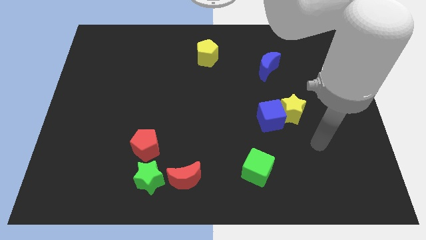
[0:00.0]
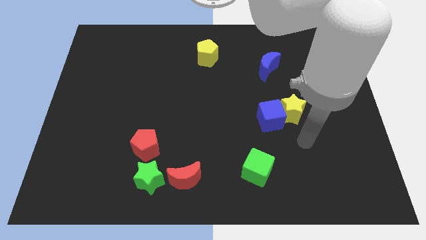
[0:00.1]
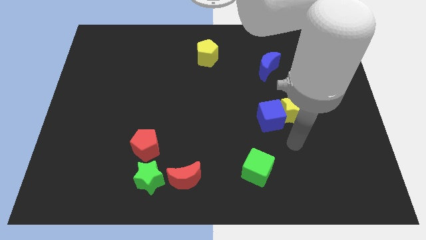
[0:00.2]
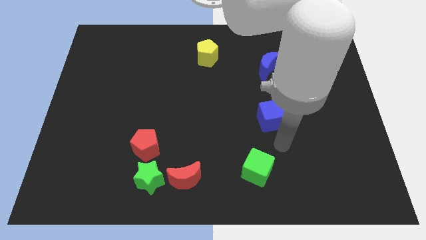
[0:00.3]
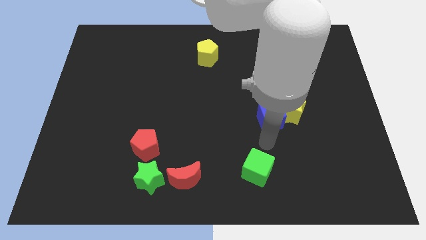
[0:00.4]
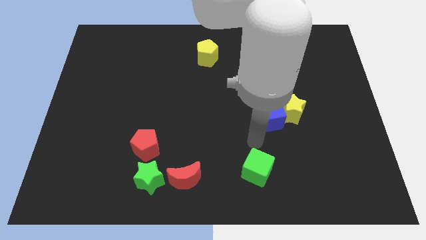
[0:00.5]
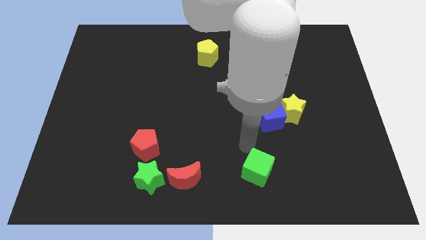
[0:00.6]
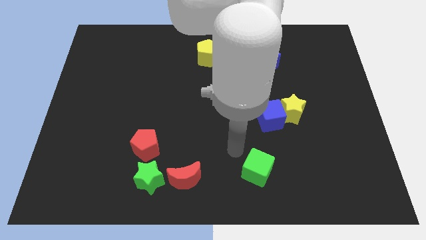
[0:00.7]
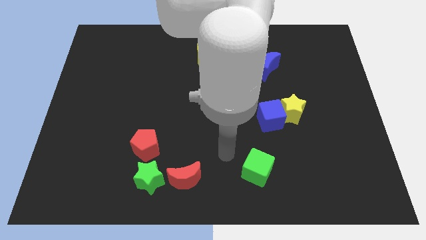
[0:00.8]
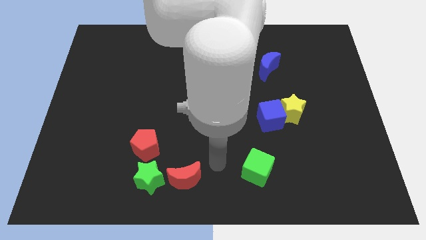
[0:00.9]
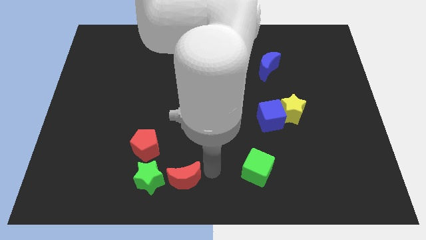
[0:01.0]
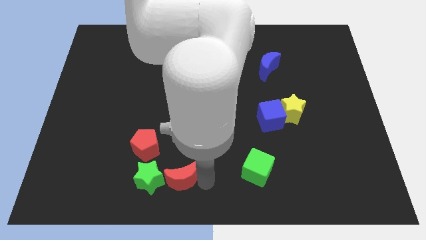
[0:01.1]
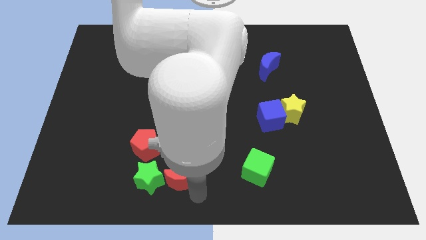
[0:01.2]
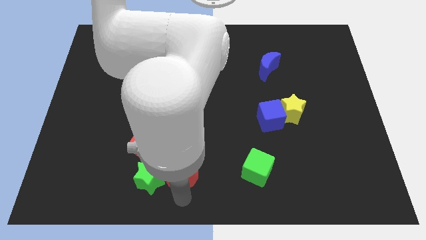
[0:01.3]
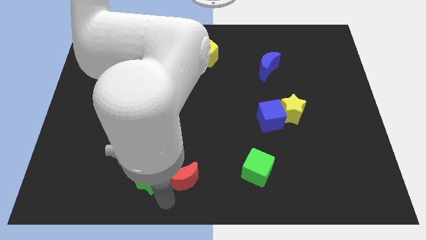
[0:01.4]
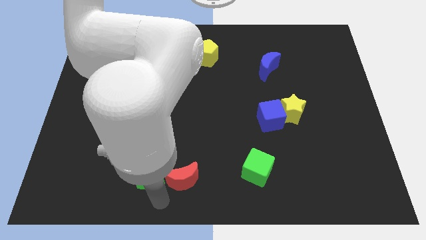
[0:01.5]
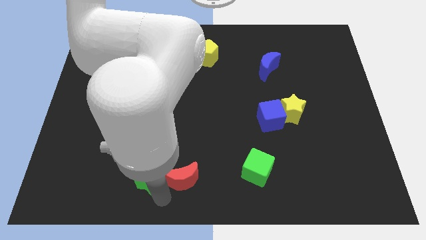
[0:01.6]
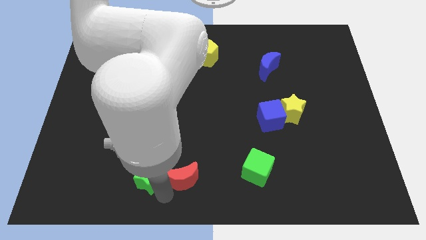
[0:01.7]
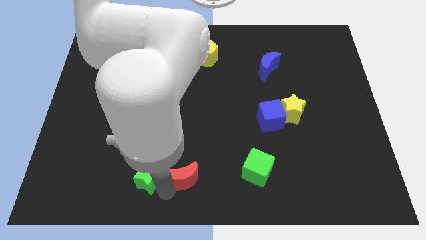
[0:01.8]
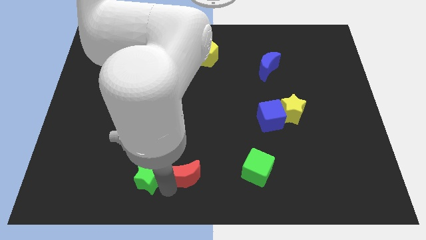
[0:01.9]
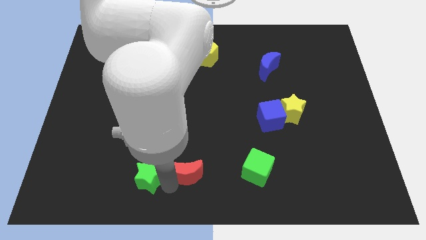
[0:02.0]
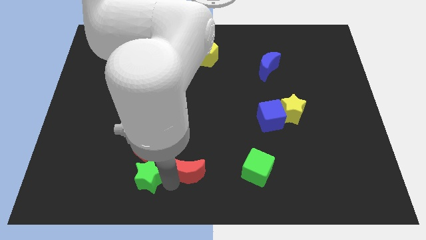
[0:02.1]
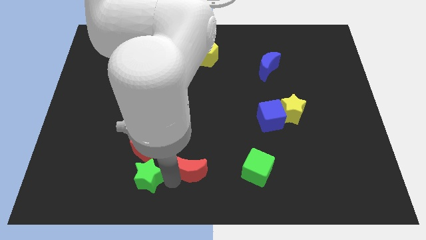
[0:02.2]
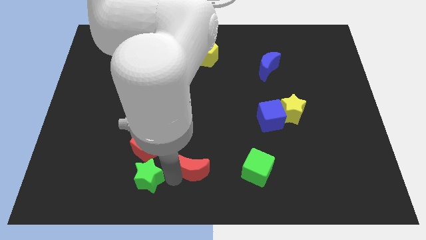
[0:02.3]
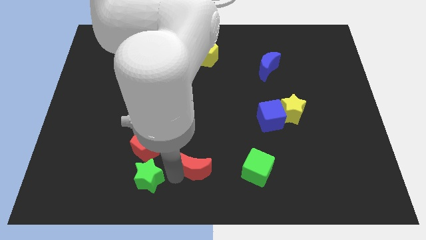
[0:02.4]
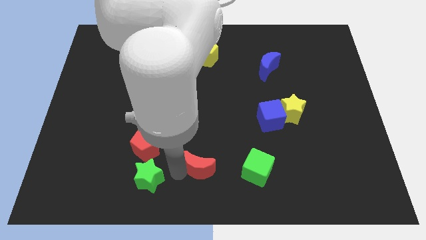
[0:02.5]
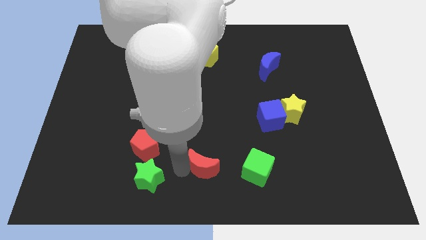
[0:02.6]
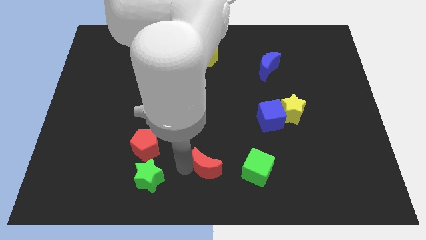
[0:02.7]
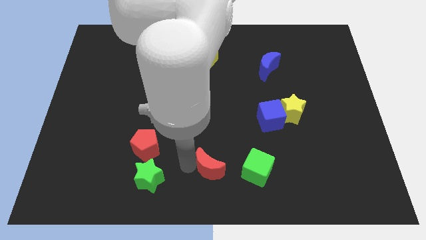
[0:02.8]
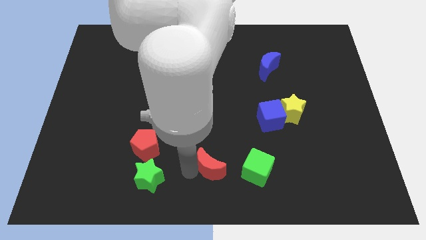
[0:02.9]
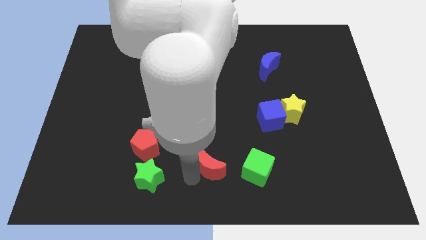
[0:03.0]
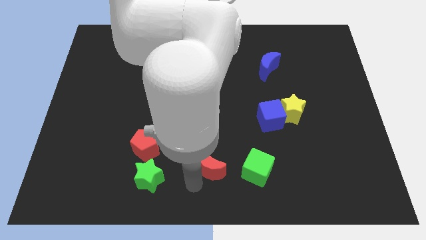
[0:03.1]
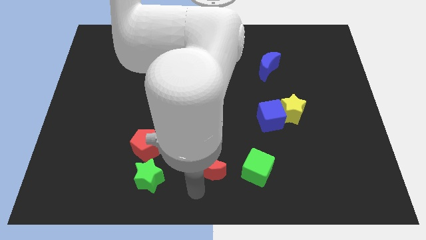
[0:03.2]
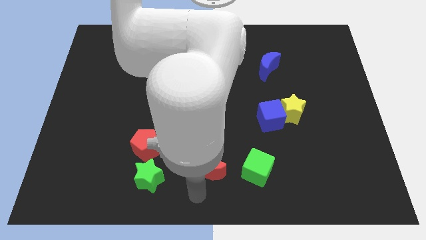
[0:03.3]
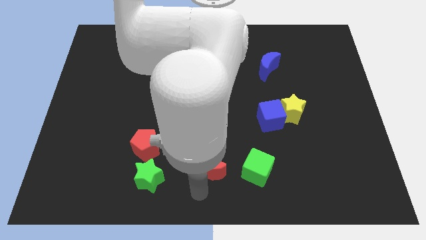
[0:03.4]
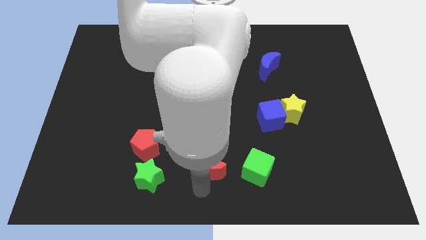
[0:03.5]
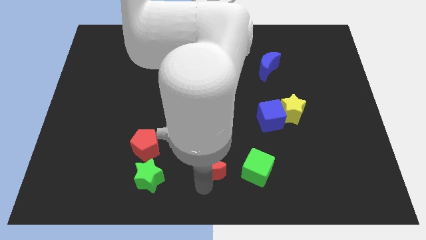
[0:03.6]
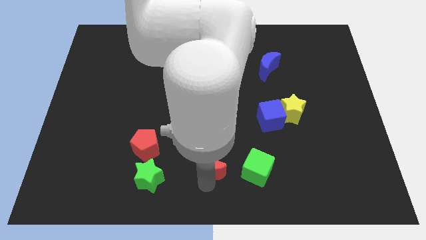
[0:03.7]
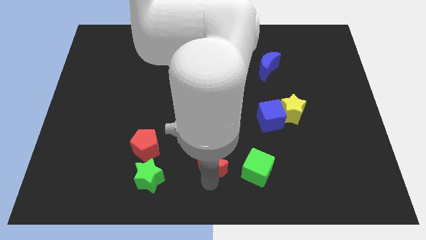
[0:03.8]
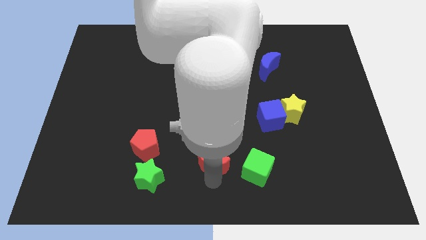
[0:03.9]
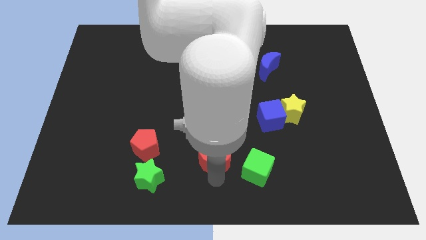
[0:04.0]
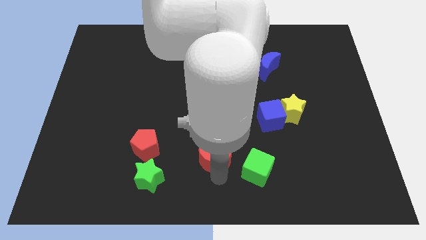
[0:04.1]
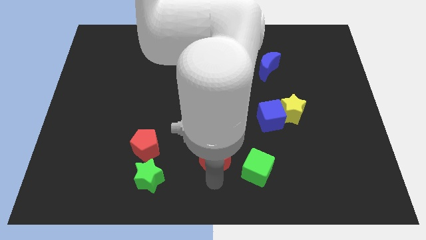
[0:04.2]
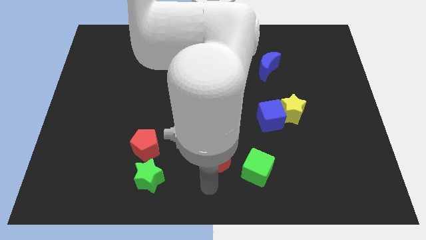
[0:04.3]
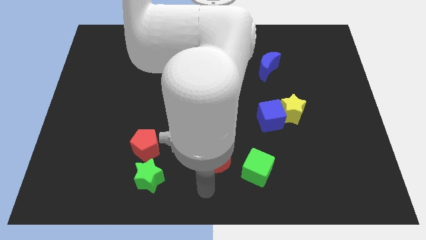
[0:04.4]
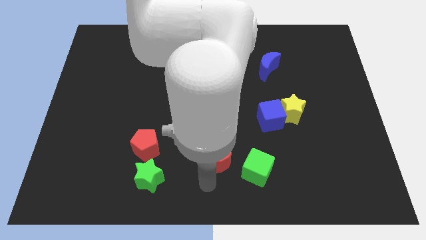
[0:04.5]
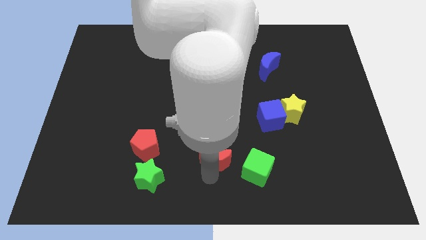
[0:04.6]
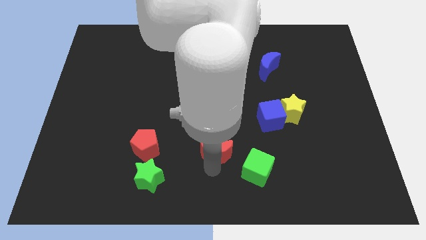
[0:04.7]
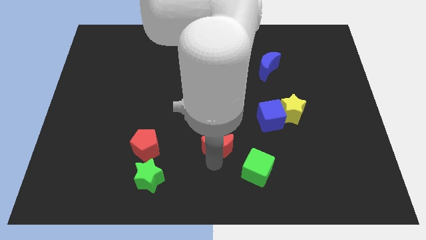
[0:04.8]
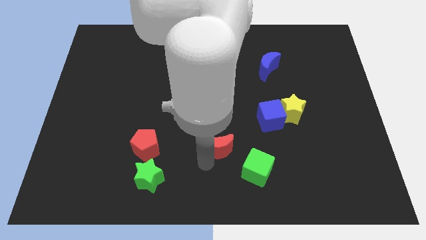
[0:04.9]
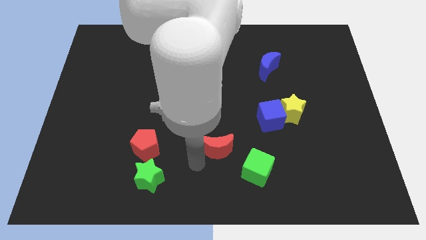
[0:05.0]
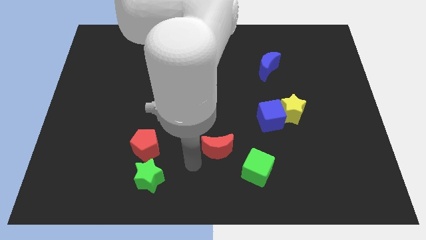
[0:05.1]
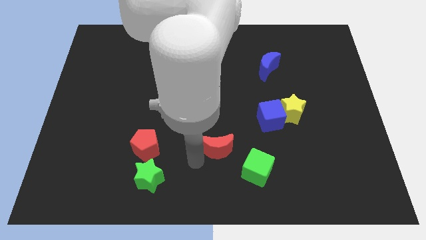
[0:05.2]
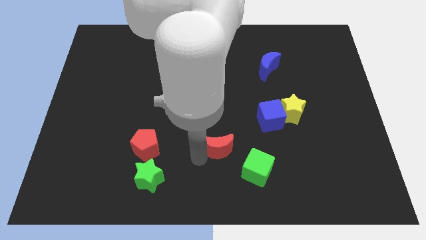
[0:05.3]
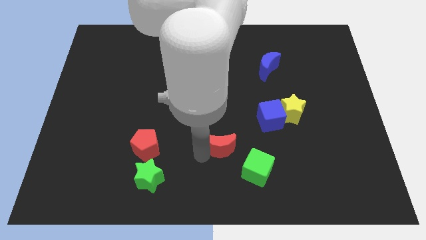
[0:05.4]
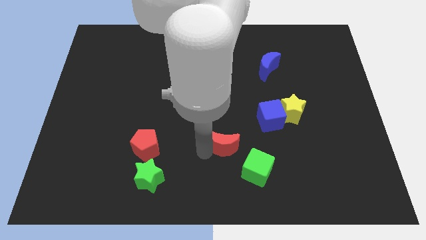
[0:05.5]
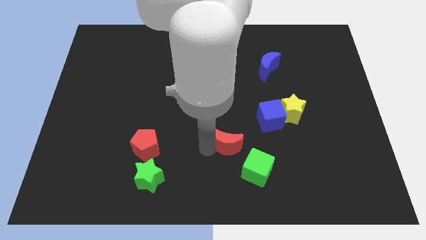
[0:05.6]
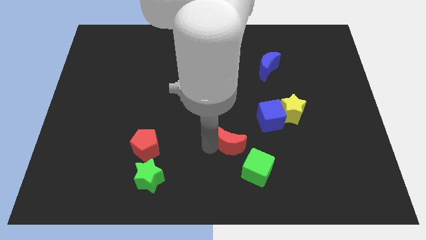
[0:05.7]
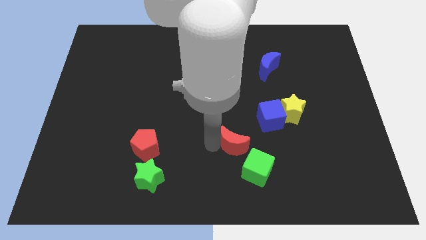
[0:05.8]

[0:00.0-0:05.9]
push the red moon to the top side of the green cube

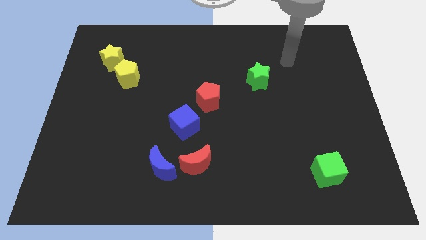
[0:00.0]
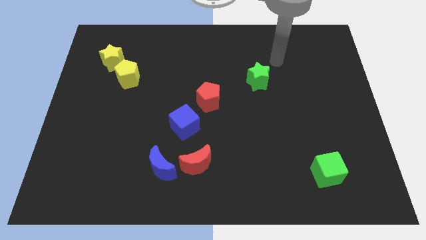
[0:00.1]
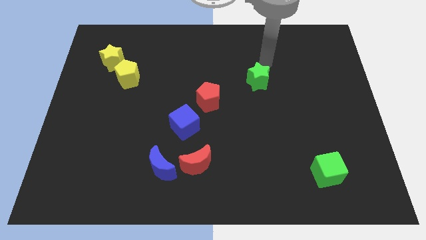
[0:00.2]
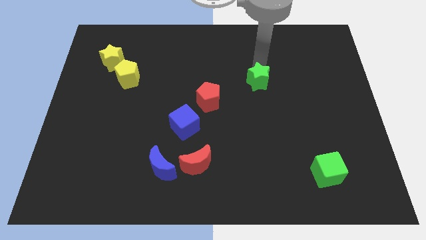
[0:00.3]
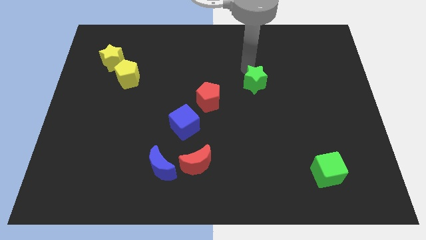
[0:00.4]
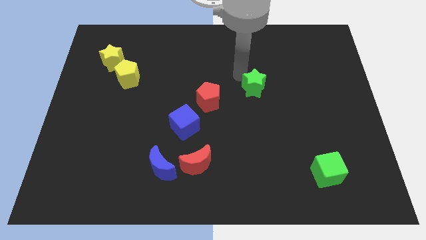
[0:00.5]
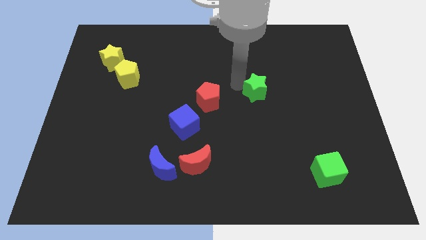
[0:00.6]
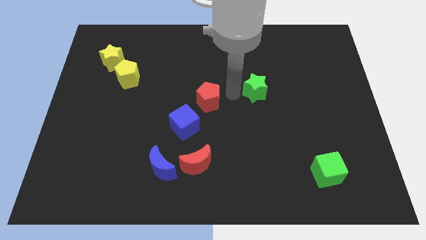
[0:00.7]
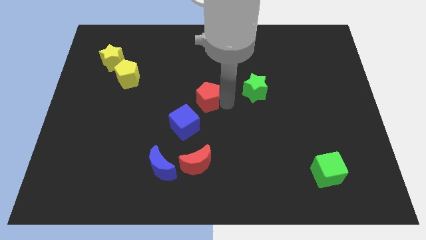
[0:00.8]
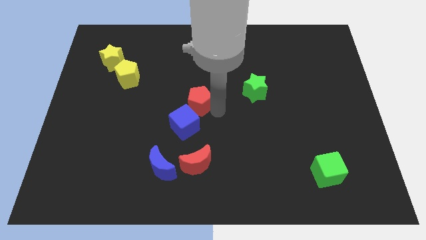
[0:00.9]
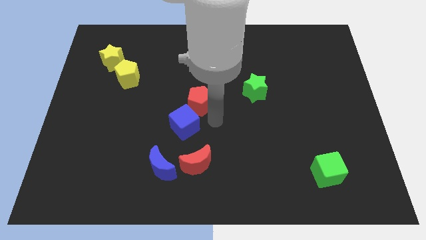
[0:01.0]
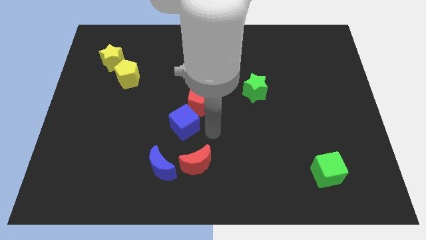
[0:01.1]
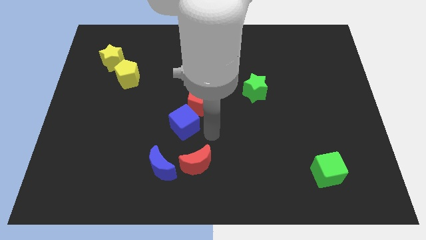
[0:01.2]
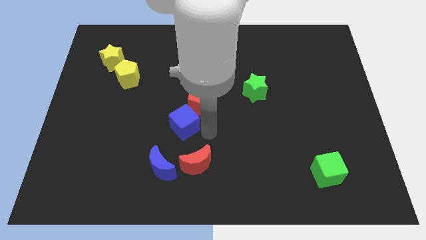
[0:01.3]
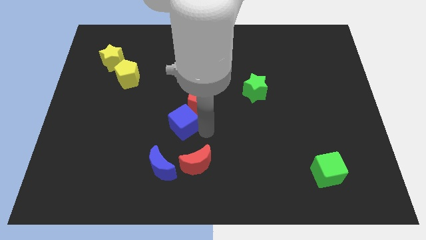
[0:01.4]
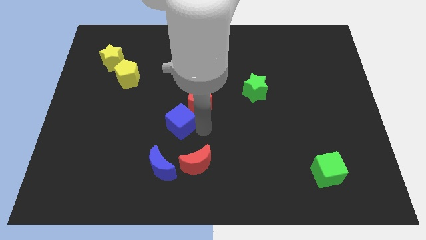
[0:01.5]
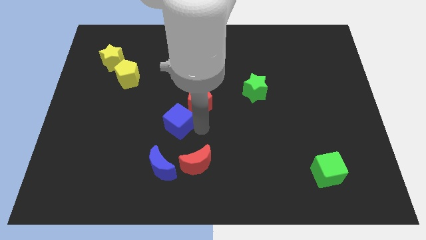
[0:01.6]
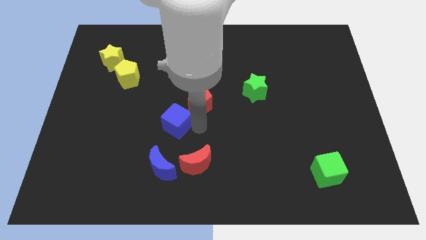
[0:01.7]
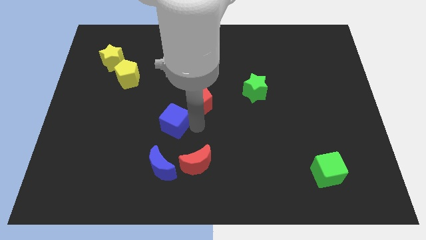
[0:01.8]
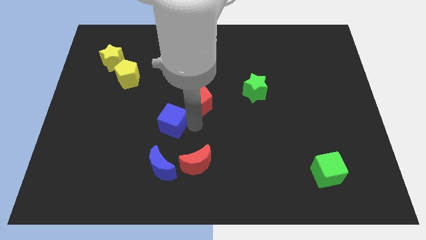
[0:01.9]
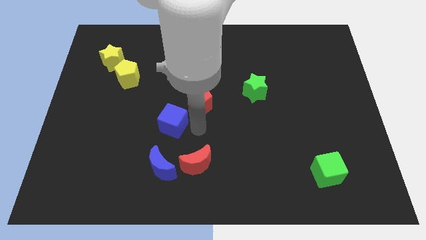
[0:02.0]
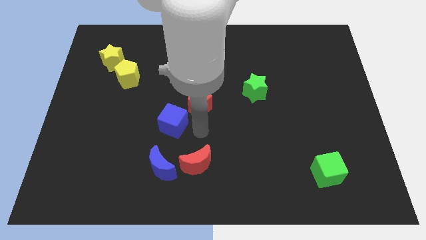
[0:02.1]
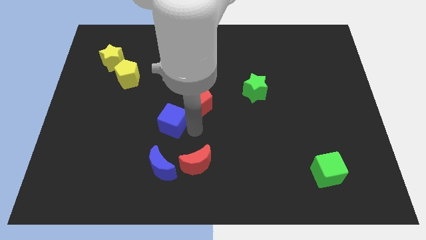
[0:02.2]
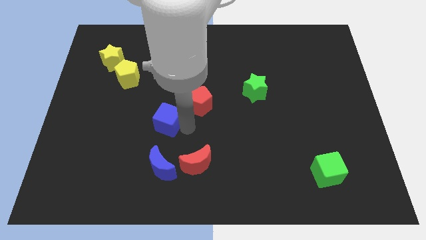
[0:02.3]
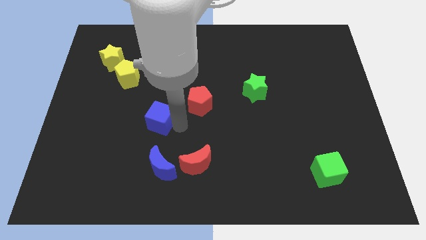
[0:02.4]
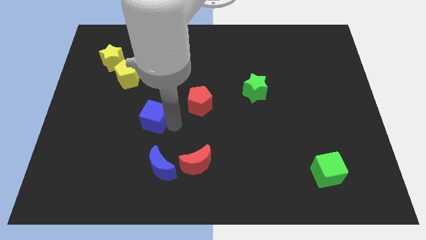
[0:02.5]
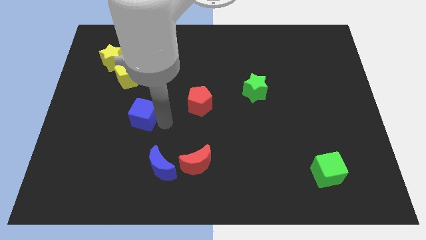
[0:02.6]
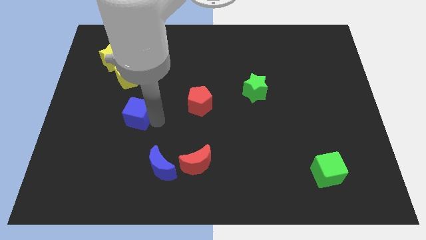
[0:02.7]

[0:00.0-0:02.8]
push the blue cube below the yellow pentagon
